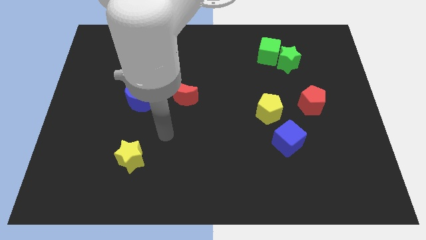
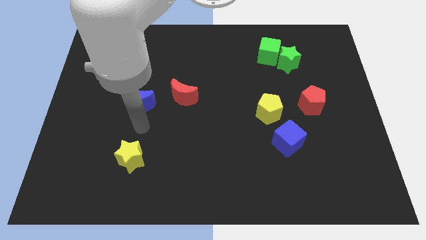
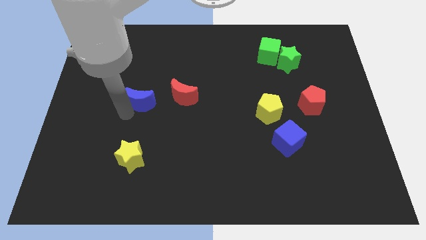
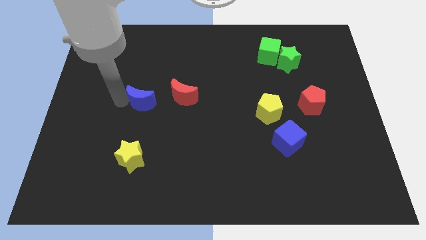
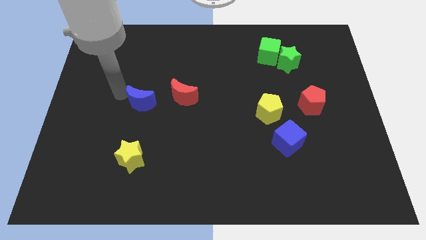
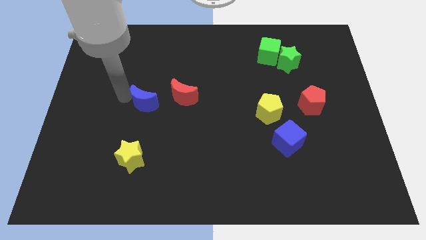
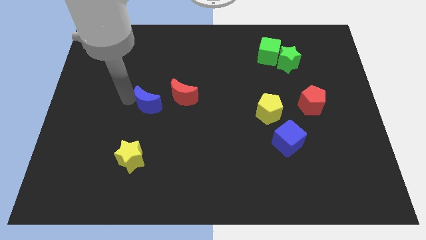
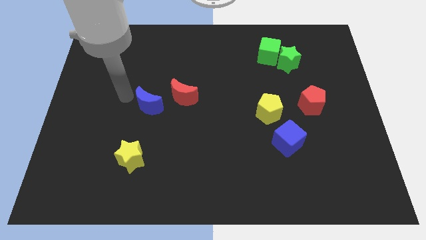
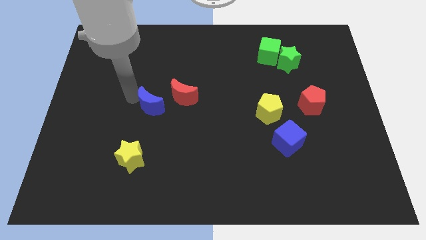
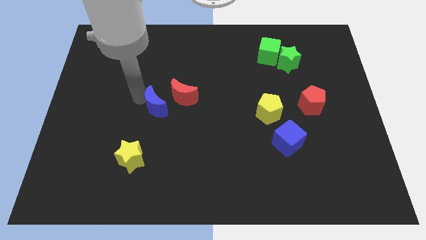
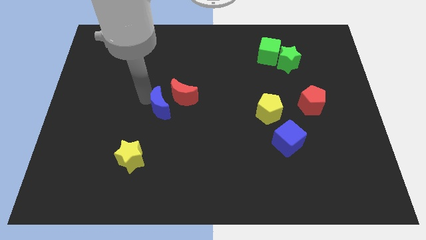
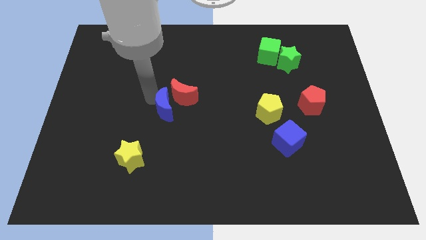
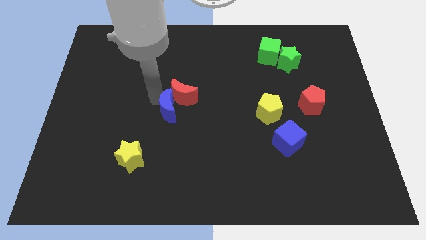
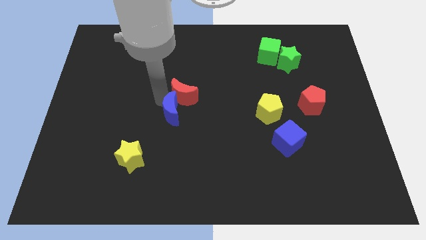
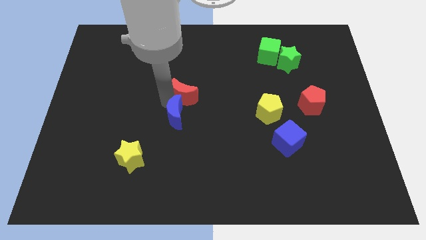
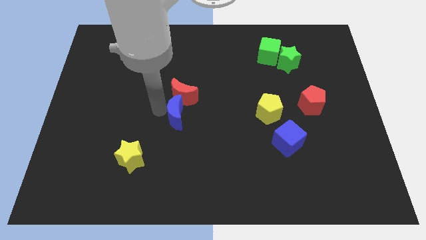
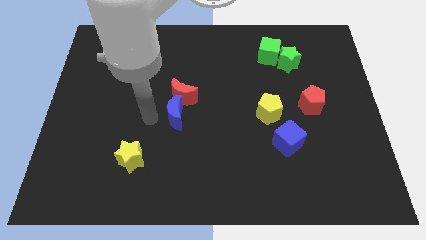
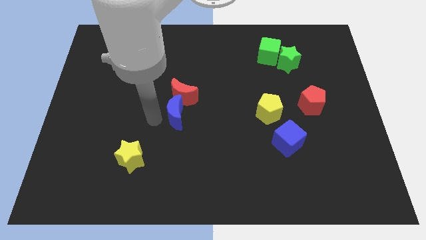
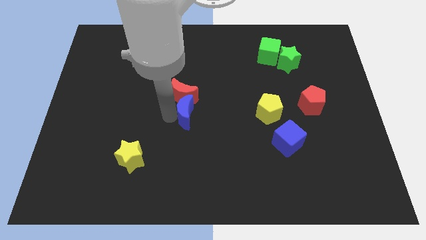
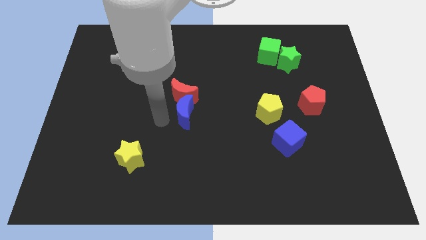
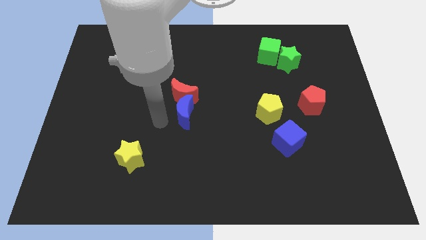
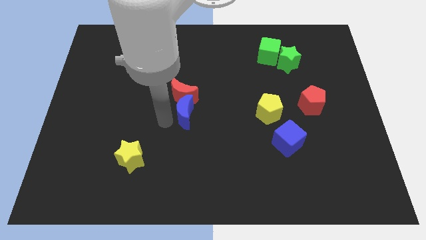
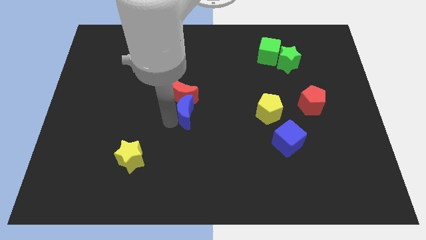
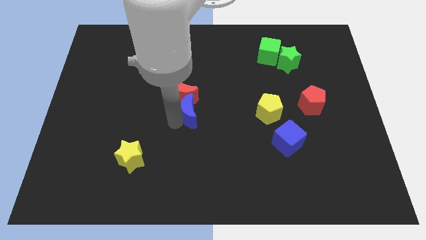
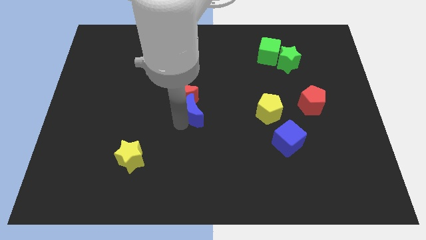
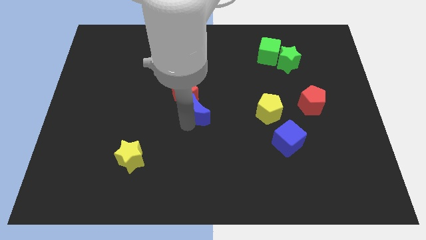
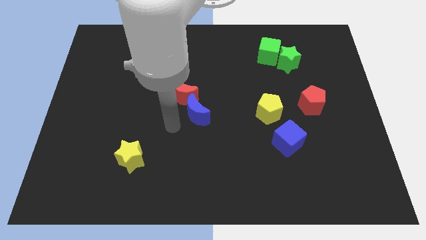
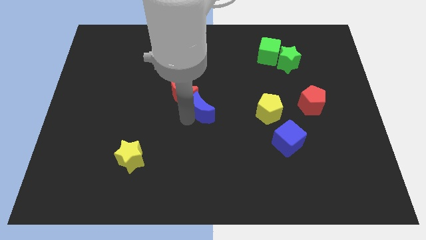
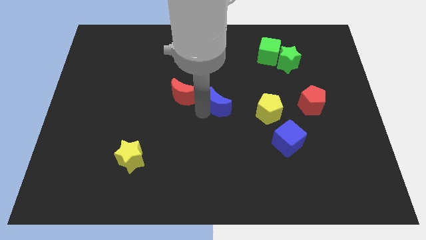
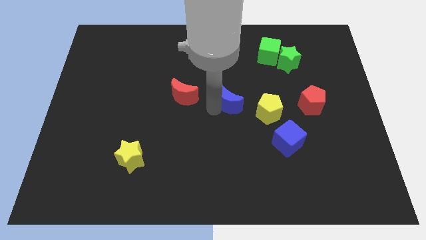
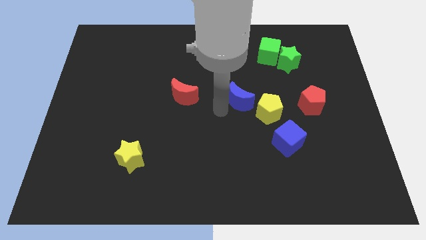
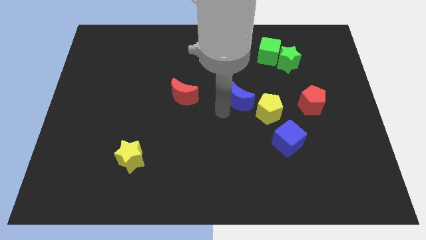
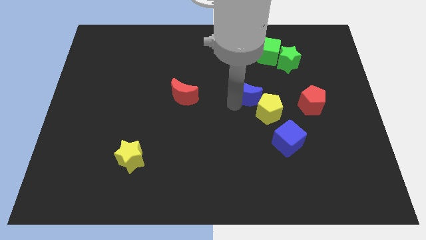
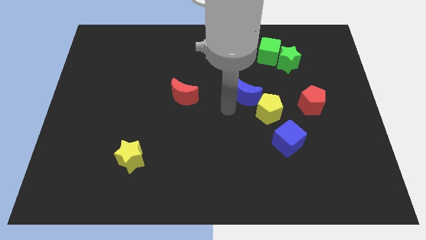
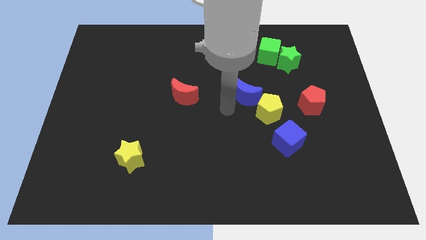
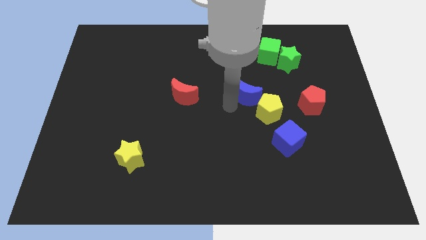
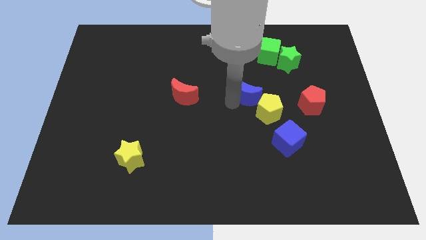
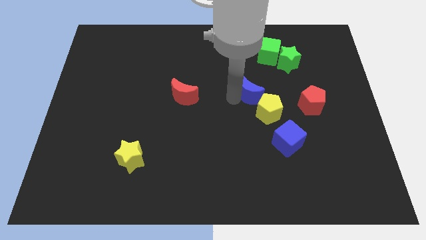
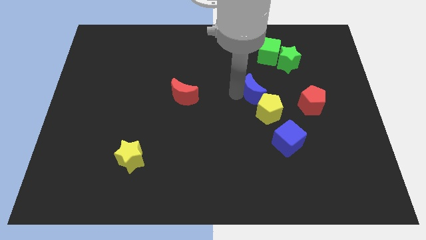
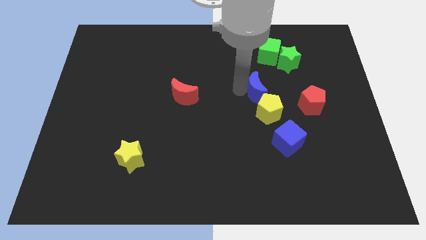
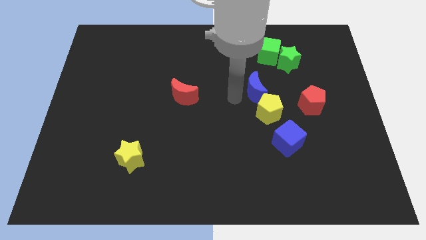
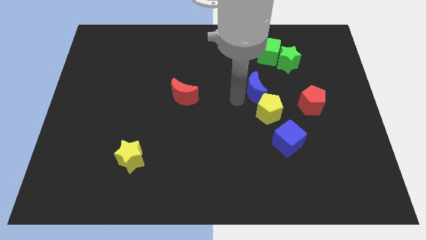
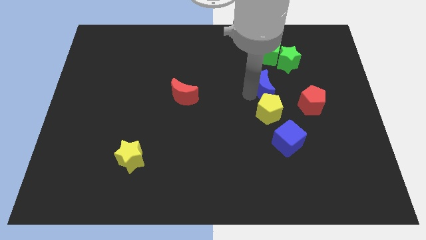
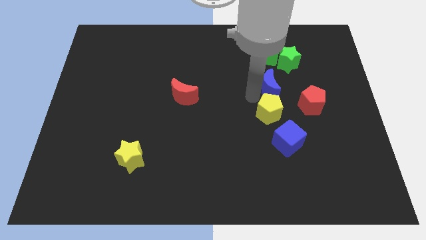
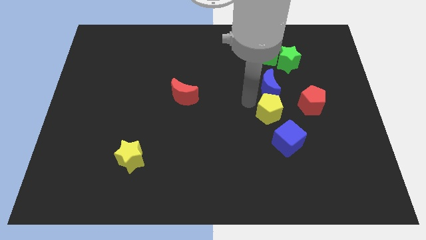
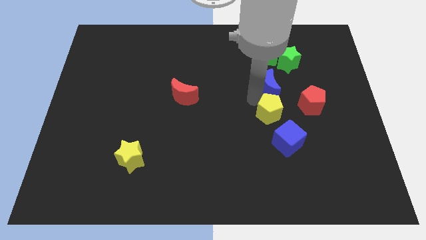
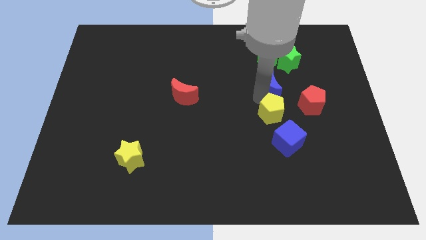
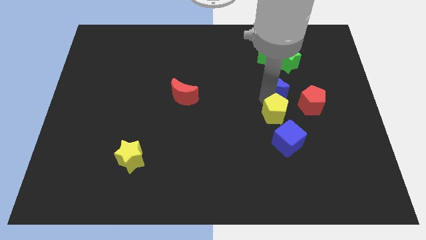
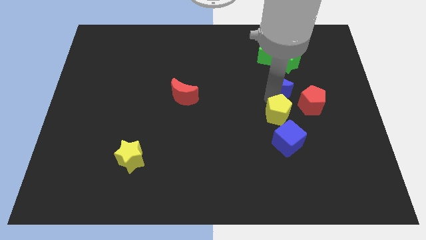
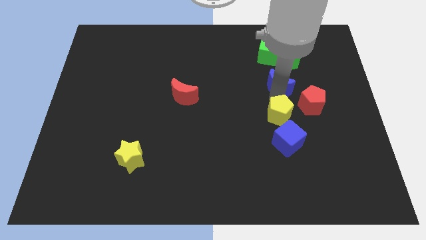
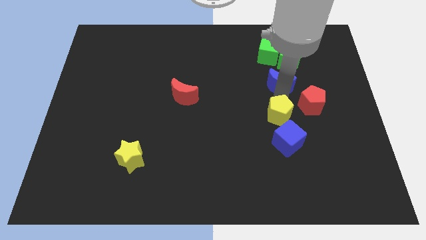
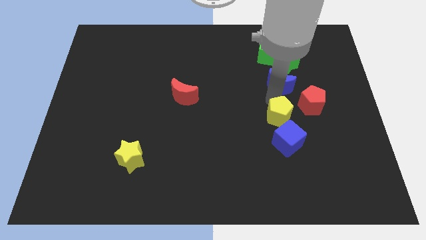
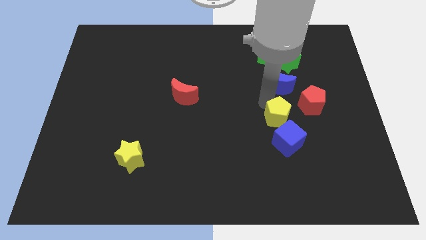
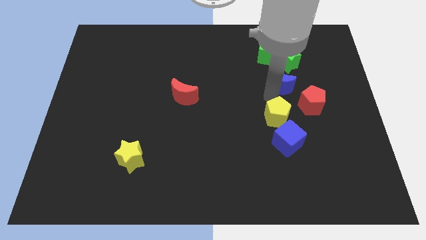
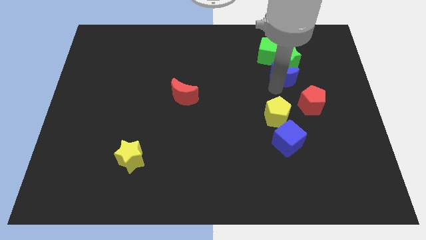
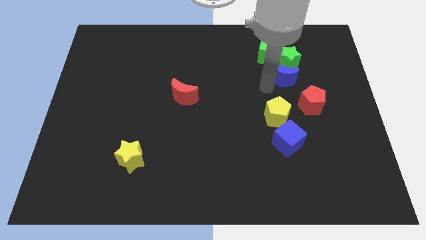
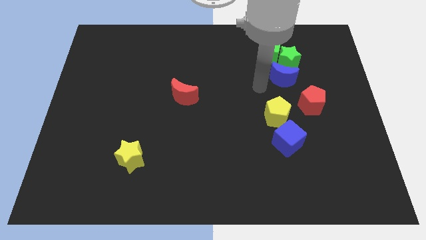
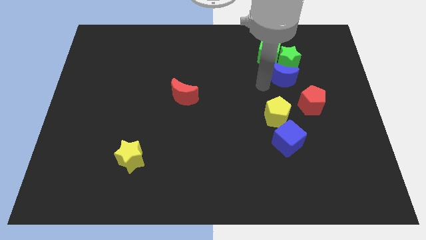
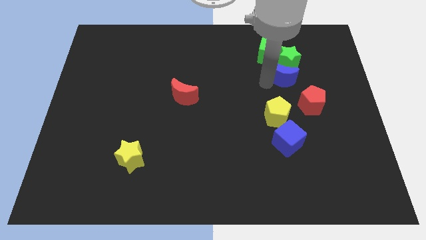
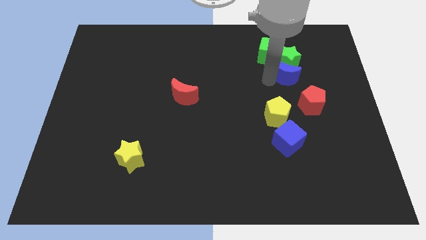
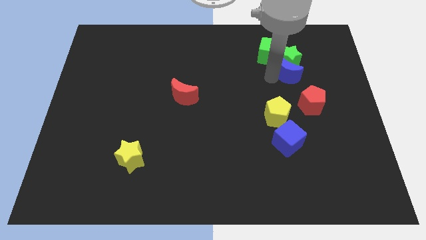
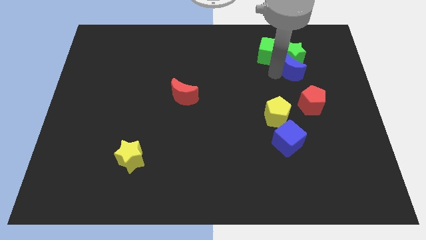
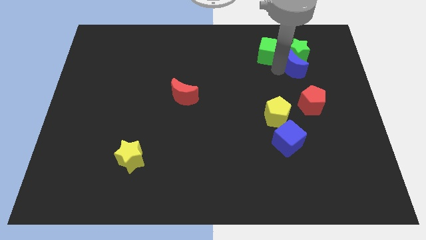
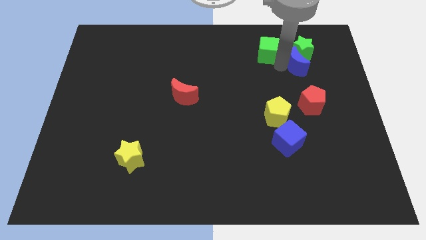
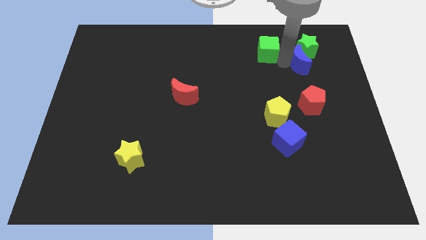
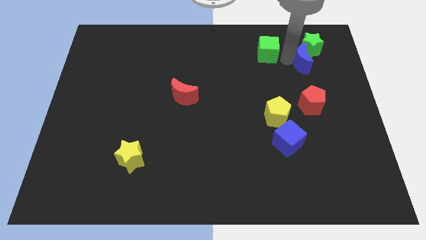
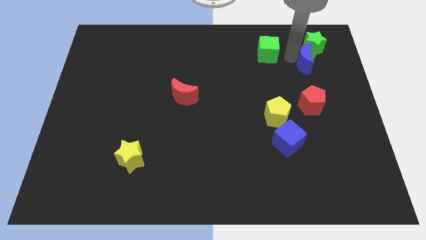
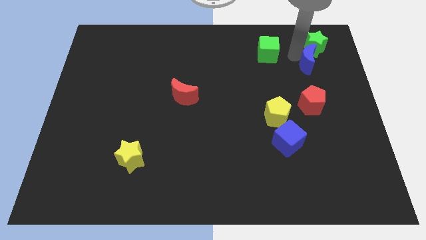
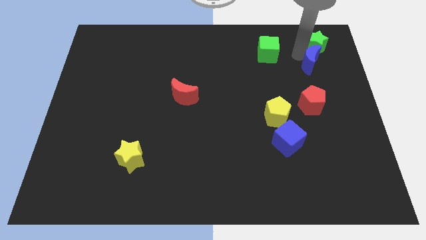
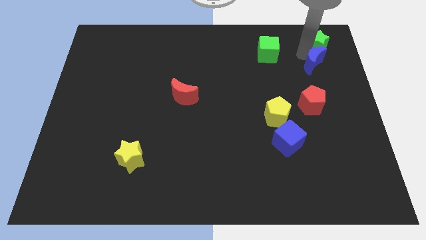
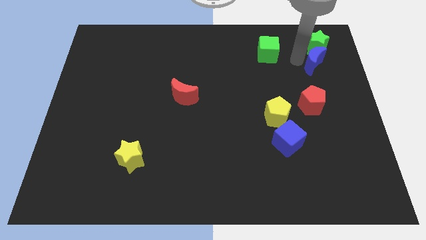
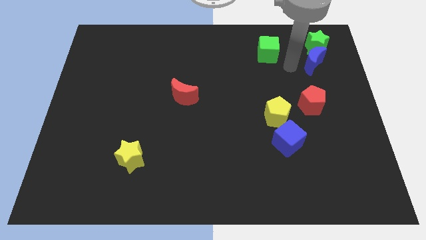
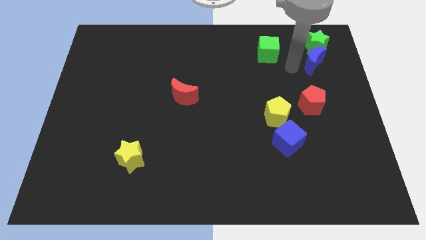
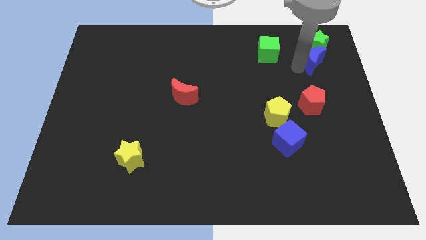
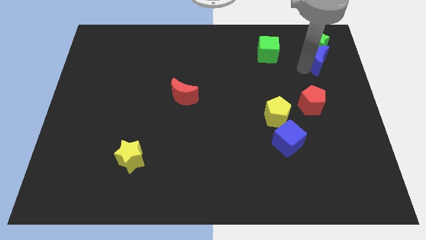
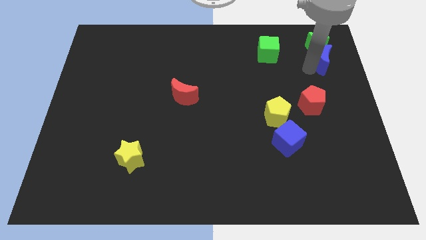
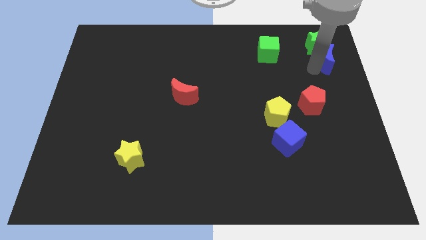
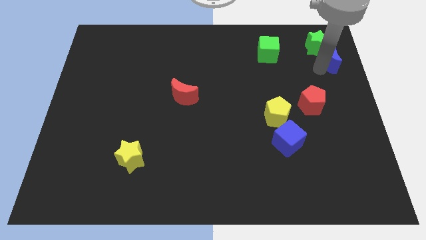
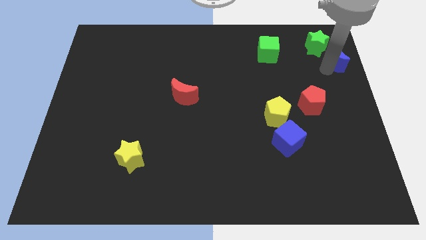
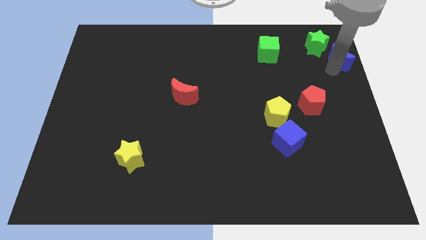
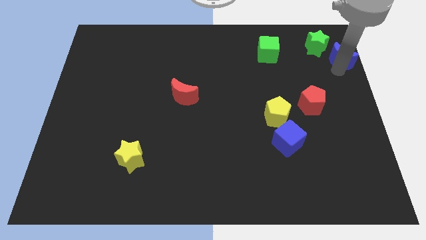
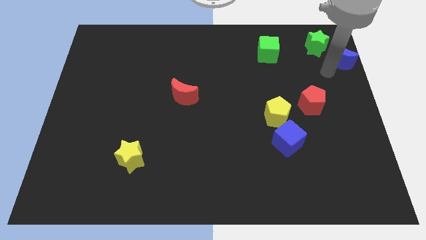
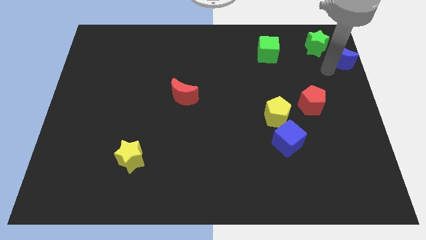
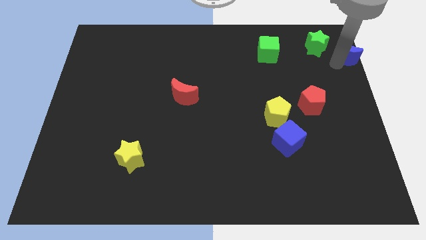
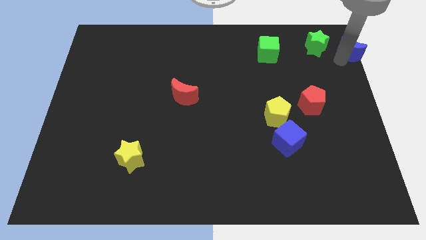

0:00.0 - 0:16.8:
move the blue moon to the upper right corner
